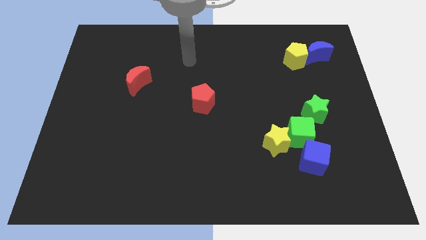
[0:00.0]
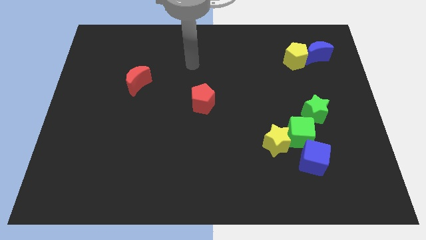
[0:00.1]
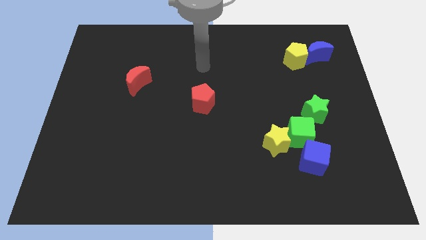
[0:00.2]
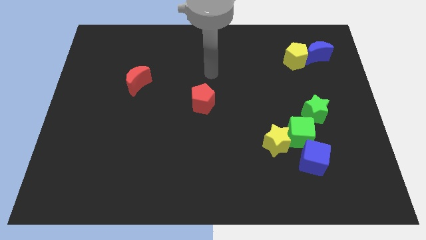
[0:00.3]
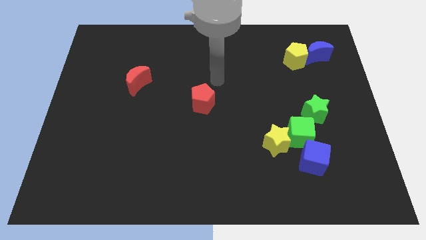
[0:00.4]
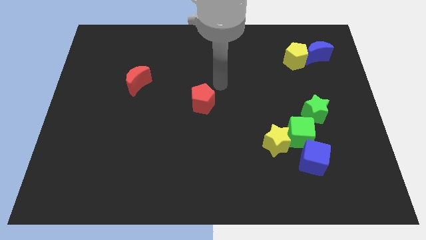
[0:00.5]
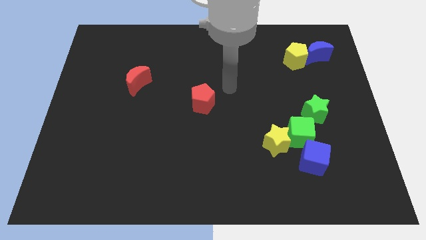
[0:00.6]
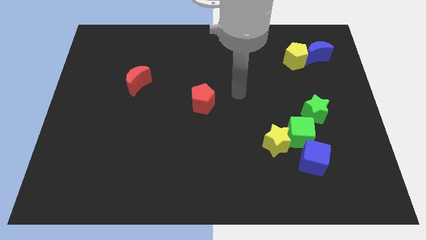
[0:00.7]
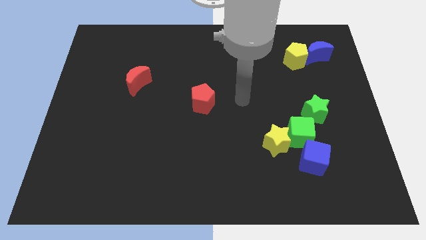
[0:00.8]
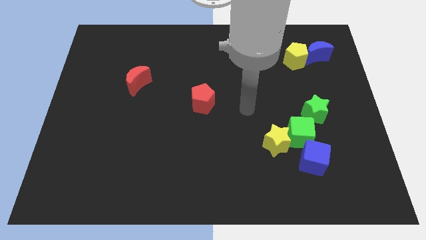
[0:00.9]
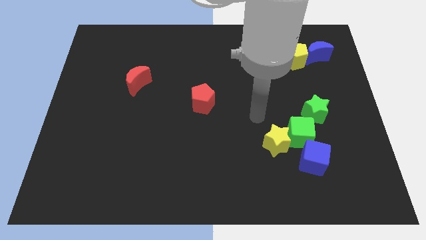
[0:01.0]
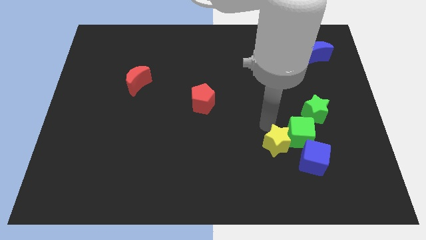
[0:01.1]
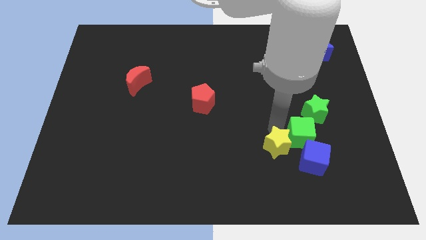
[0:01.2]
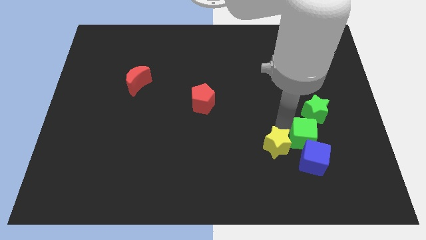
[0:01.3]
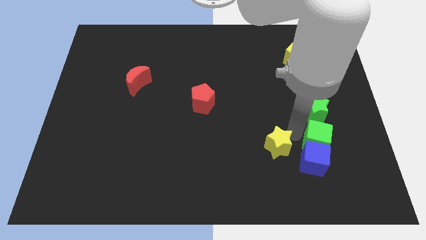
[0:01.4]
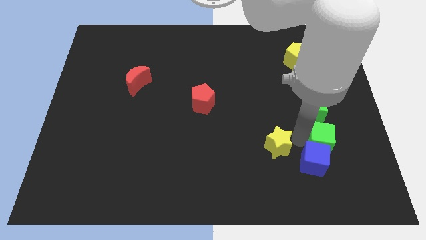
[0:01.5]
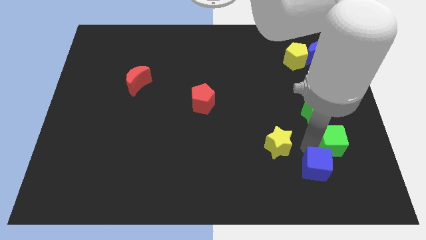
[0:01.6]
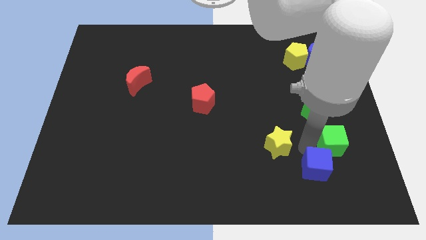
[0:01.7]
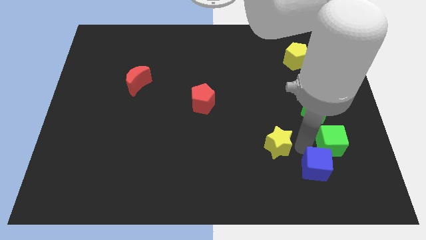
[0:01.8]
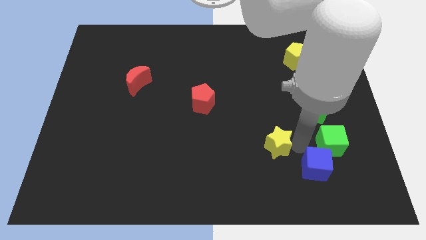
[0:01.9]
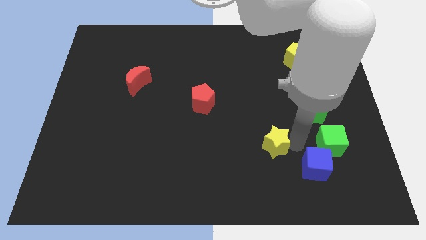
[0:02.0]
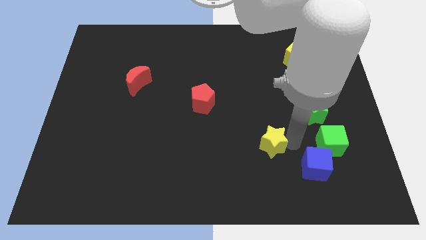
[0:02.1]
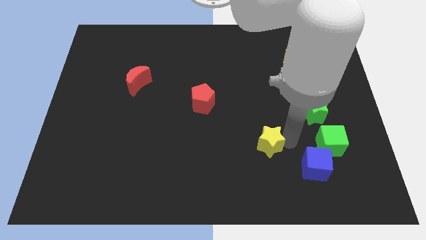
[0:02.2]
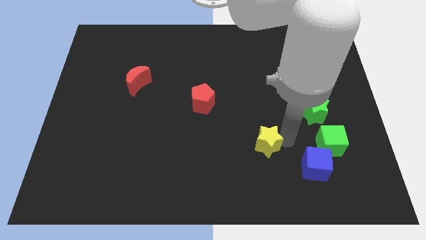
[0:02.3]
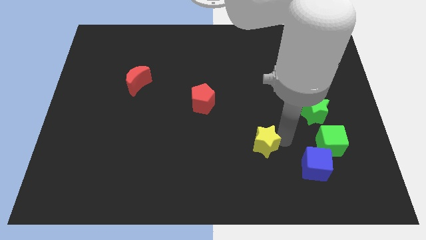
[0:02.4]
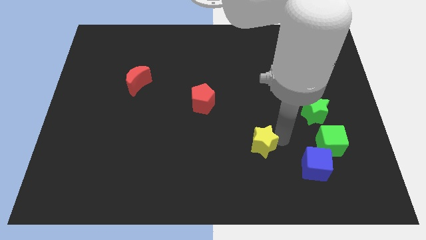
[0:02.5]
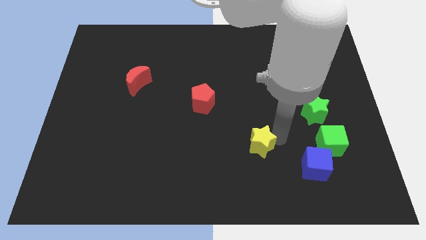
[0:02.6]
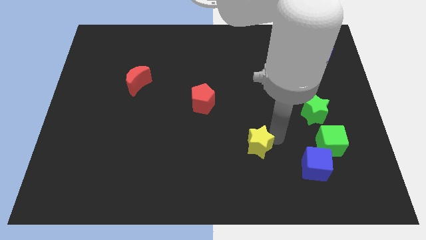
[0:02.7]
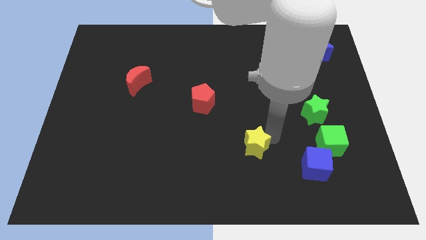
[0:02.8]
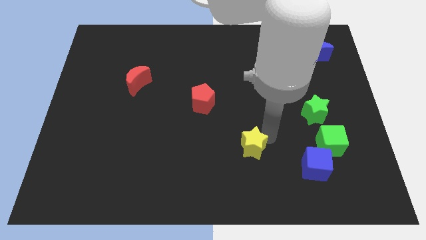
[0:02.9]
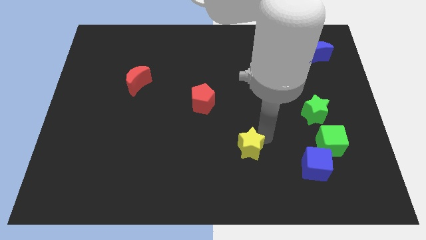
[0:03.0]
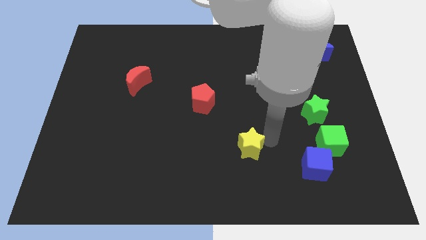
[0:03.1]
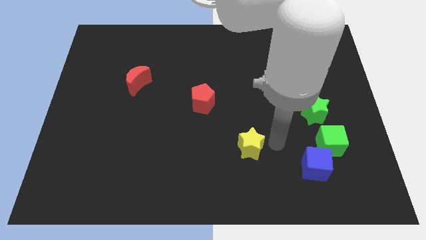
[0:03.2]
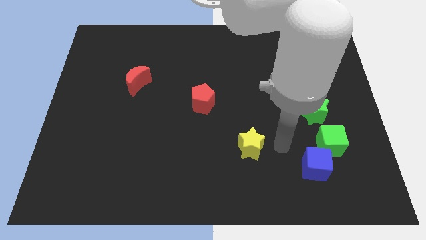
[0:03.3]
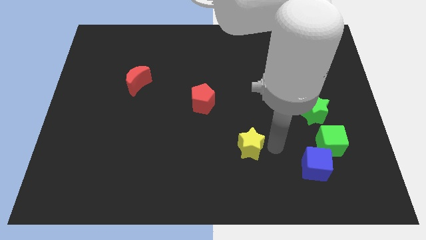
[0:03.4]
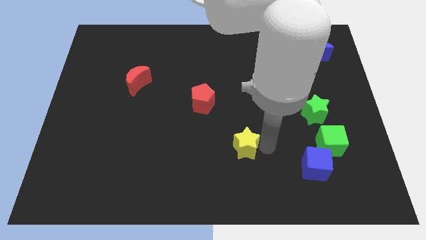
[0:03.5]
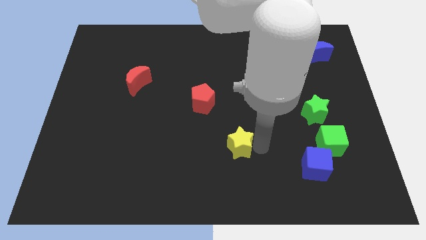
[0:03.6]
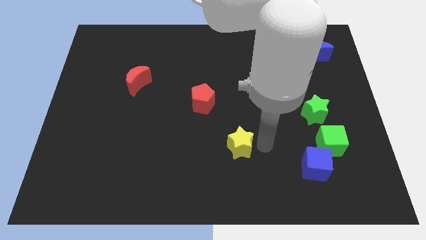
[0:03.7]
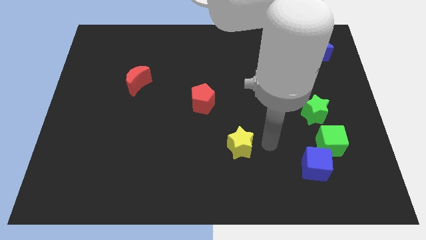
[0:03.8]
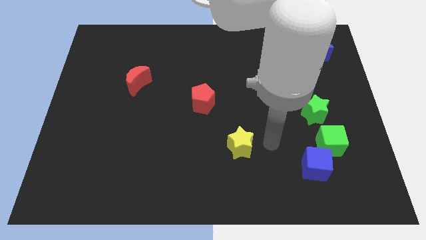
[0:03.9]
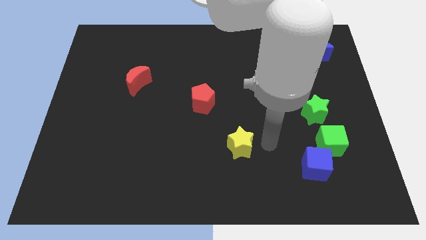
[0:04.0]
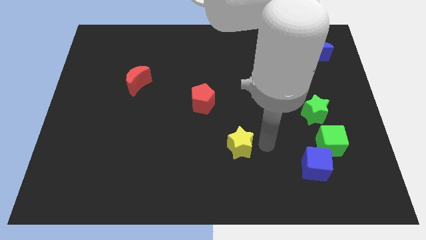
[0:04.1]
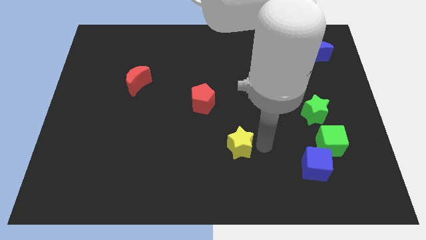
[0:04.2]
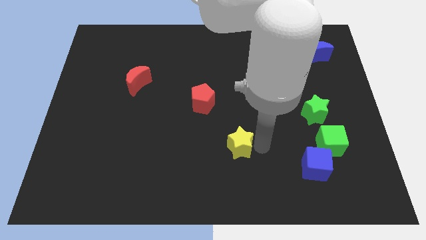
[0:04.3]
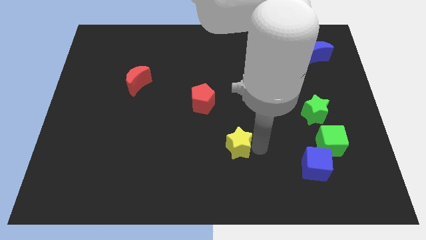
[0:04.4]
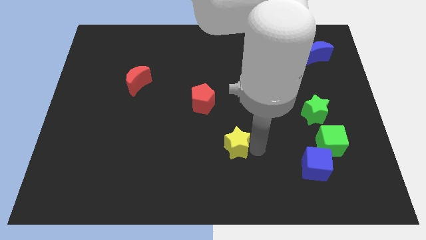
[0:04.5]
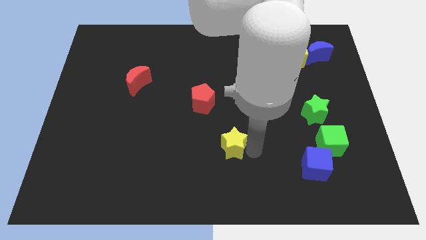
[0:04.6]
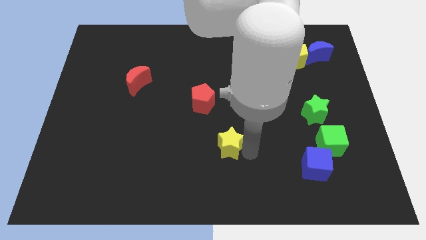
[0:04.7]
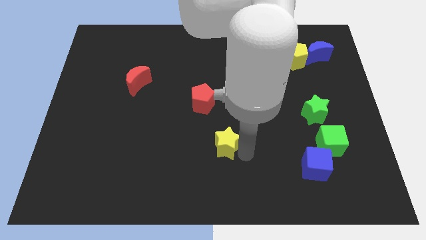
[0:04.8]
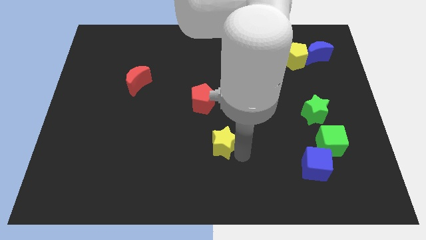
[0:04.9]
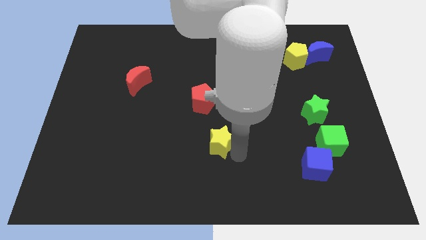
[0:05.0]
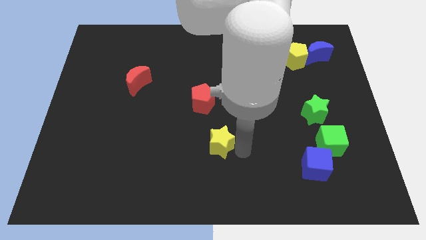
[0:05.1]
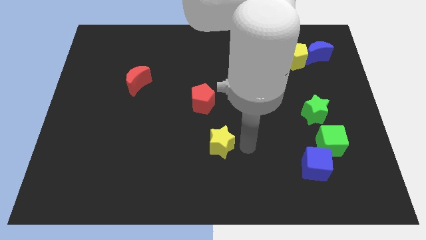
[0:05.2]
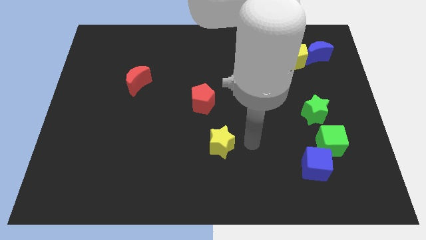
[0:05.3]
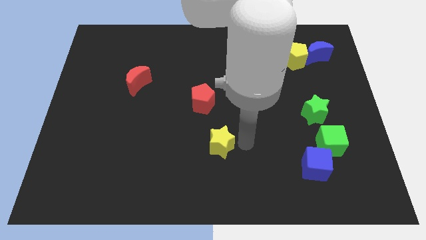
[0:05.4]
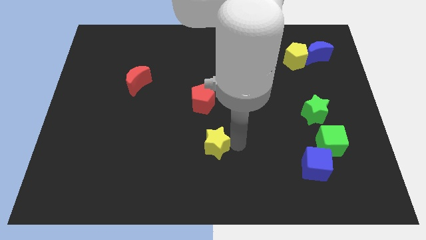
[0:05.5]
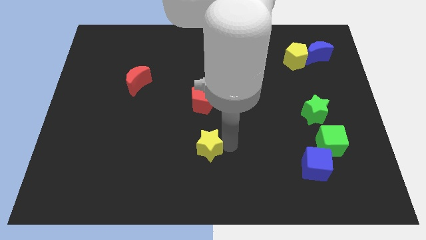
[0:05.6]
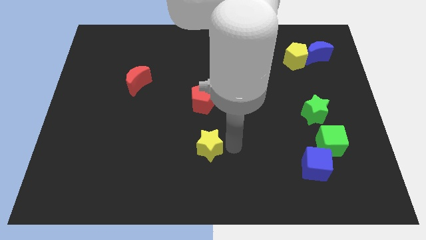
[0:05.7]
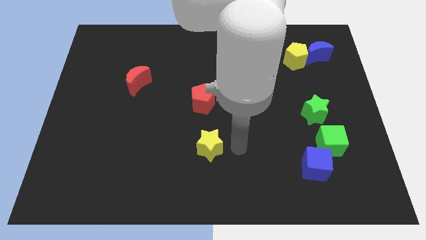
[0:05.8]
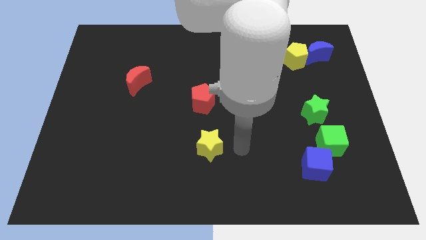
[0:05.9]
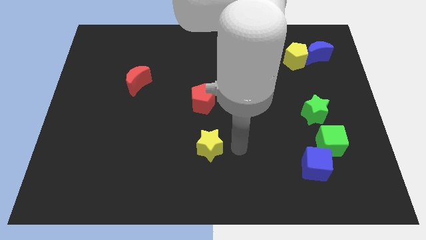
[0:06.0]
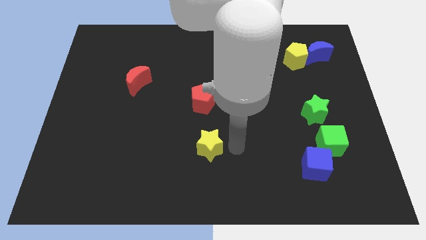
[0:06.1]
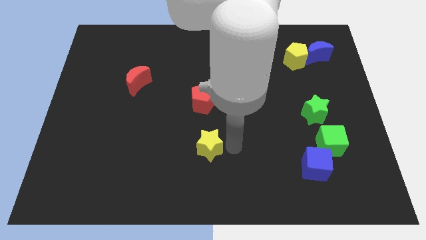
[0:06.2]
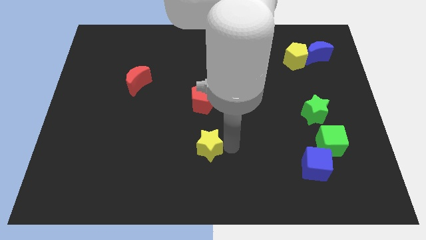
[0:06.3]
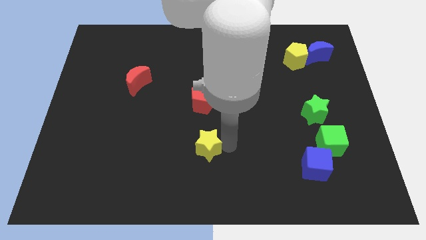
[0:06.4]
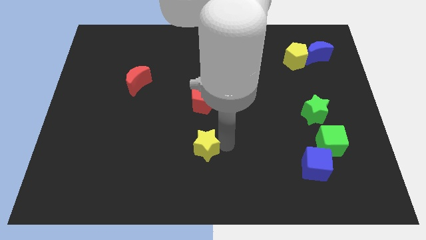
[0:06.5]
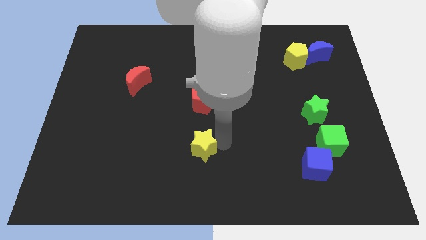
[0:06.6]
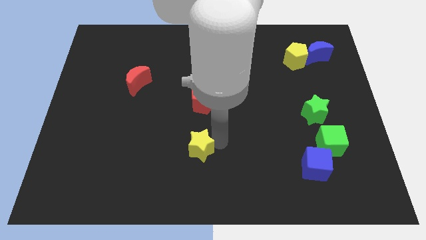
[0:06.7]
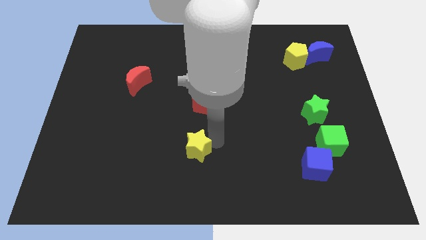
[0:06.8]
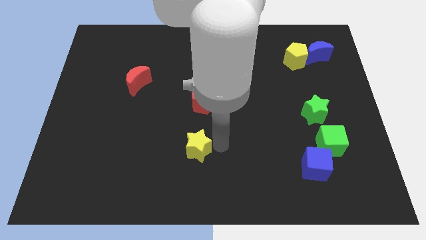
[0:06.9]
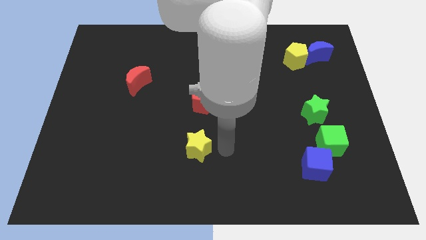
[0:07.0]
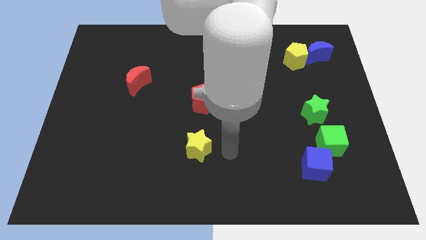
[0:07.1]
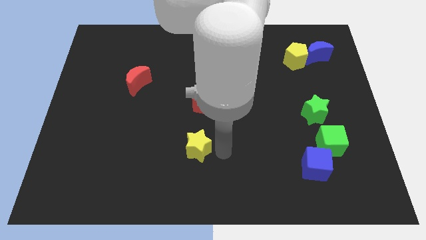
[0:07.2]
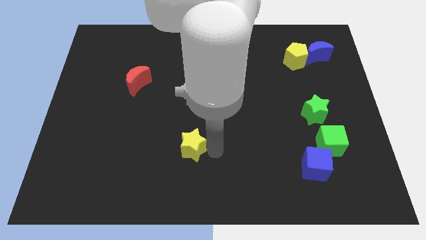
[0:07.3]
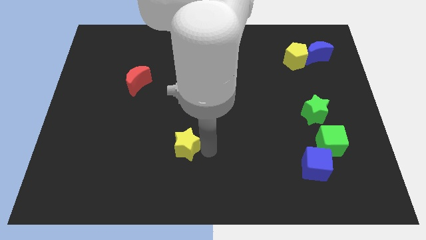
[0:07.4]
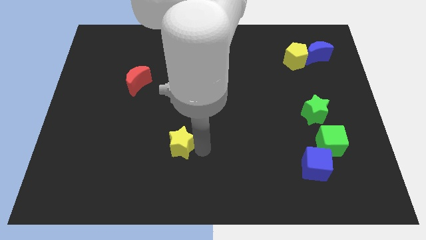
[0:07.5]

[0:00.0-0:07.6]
slide the yellow star to the left
